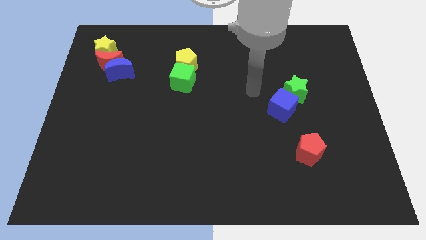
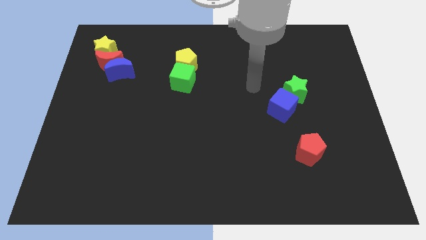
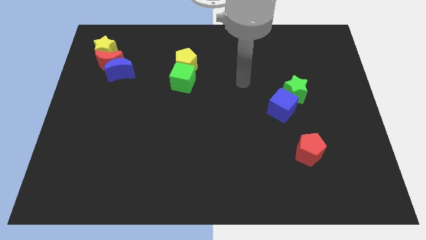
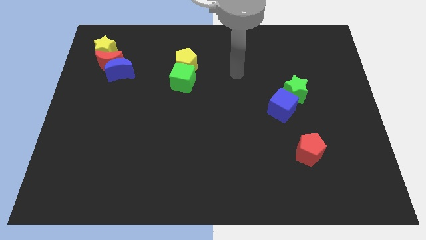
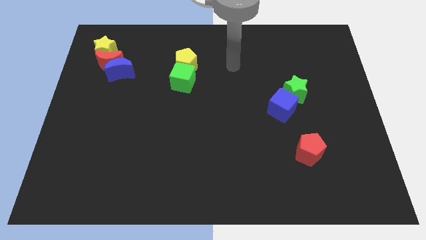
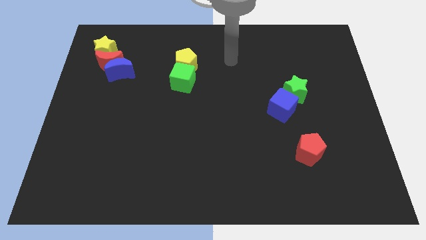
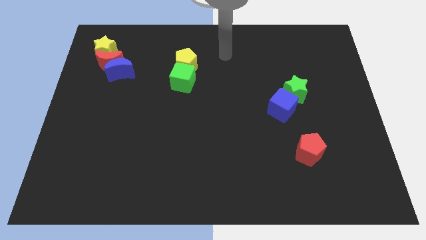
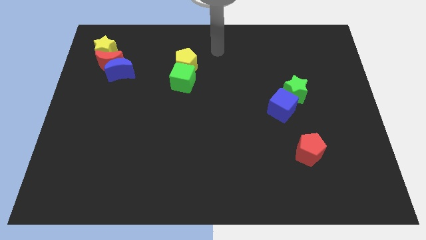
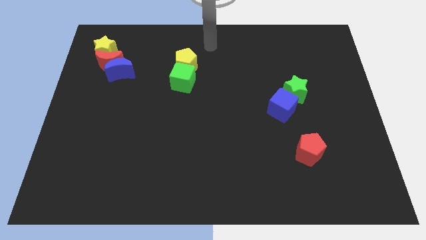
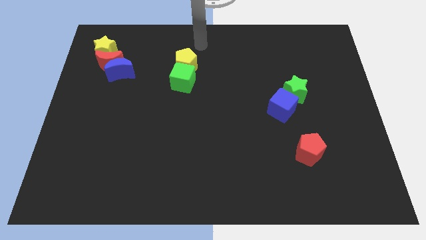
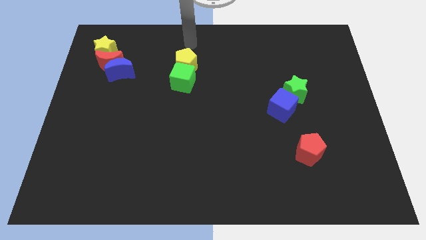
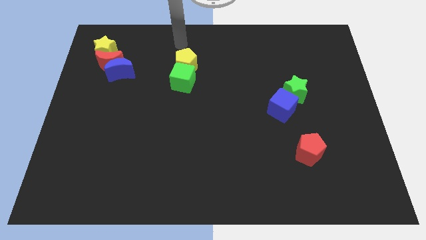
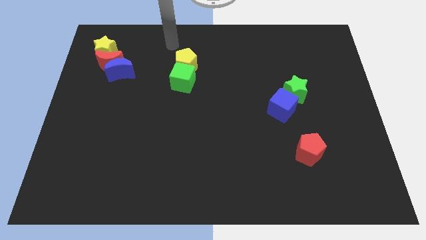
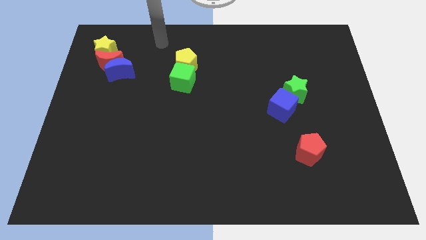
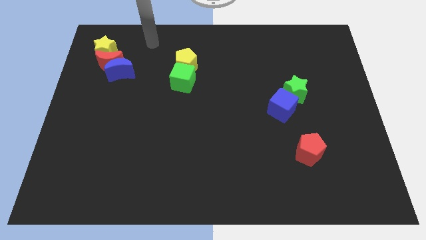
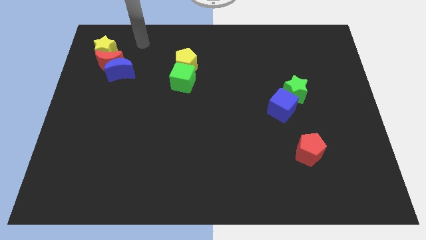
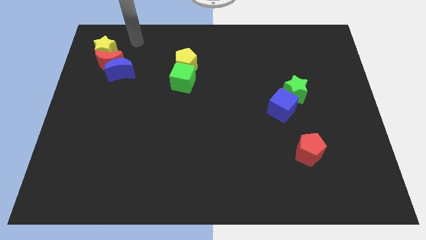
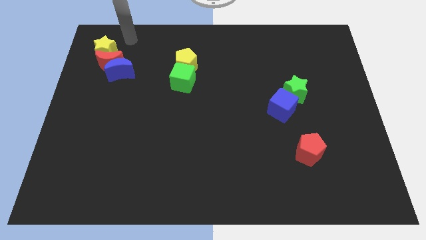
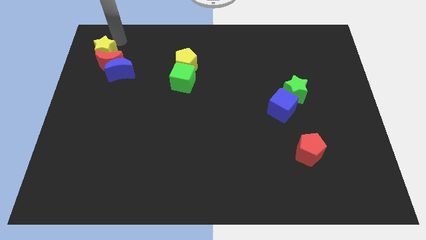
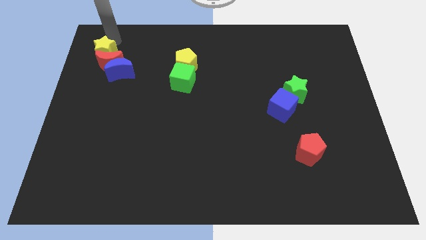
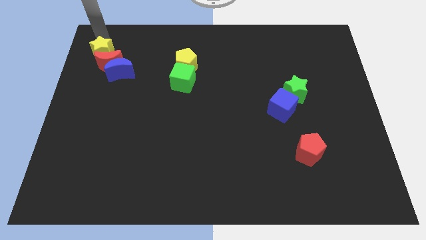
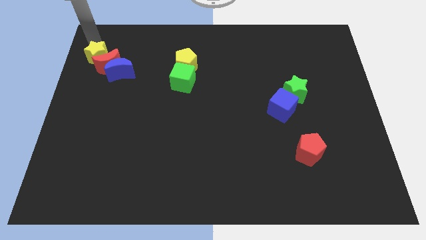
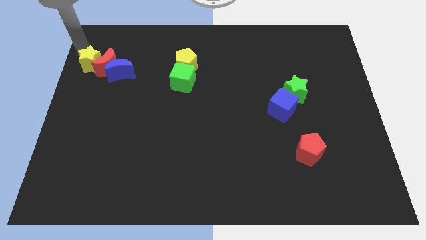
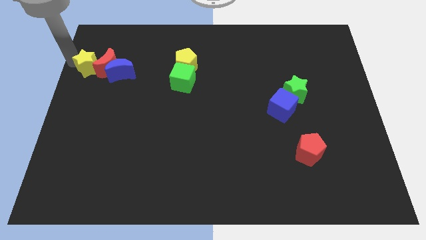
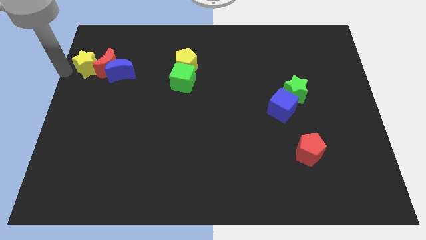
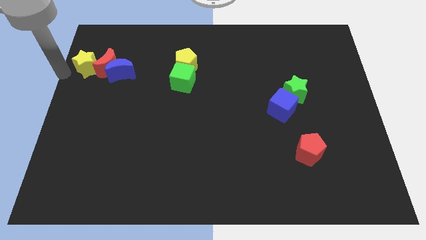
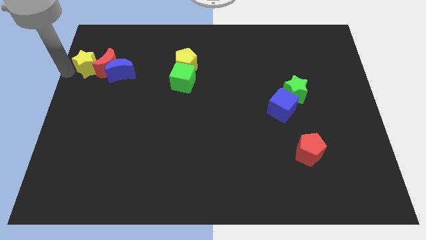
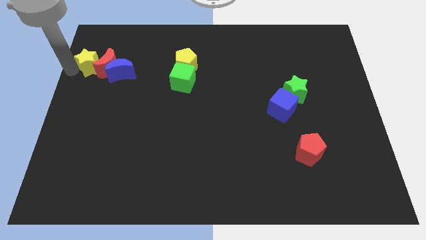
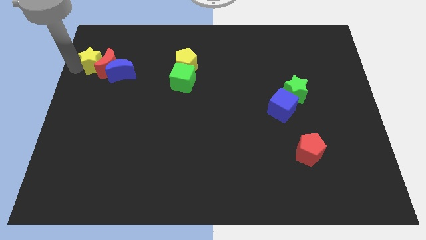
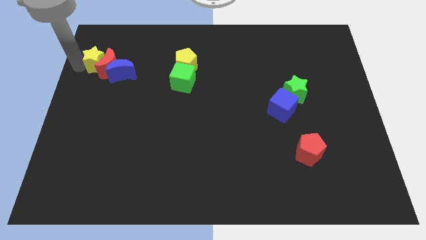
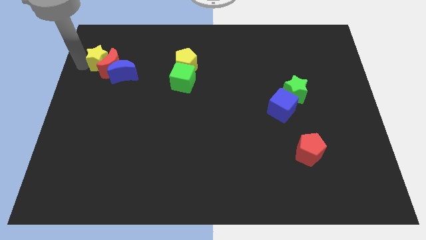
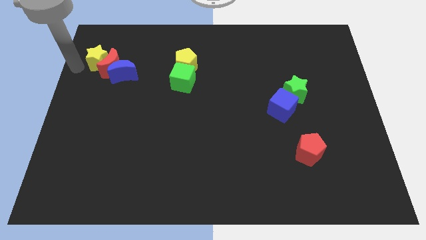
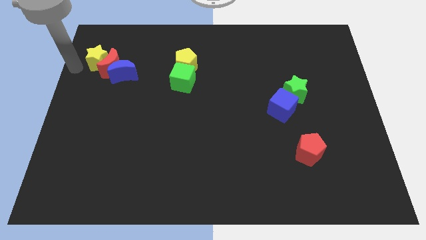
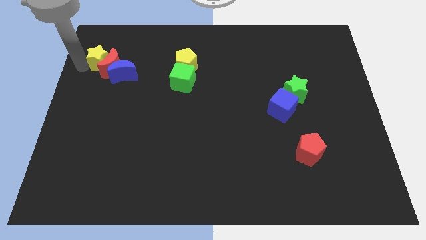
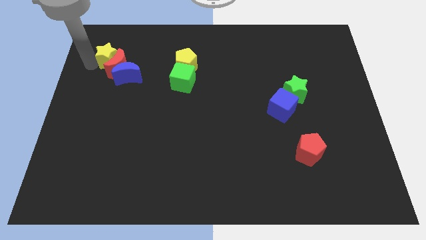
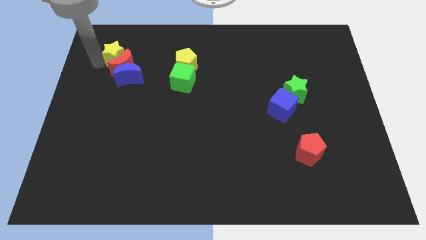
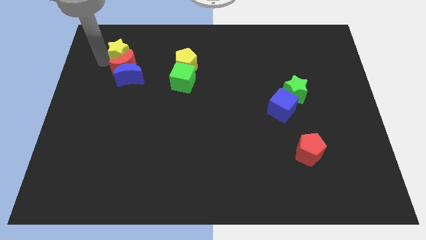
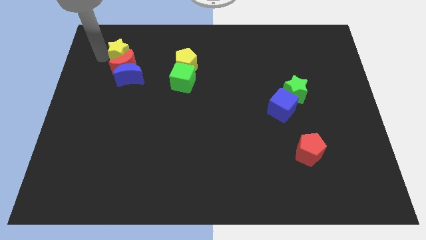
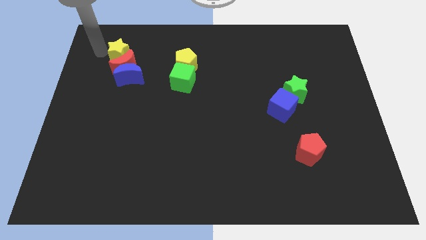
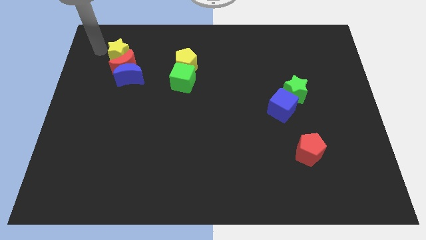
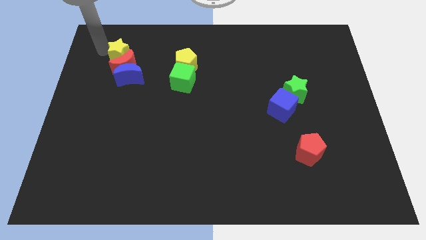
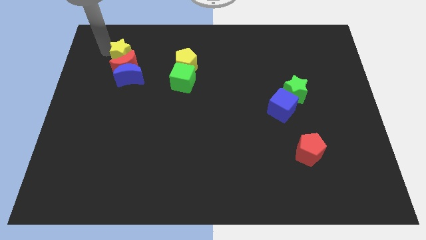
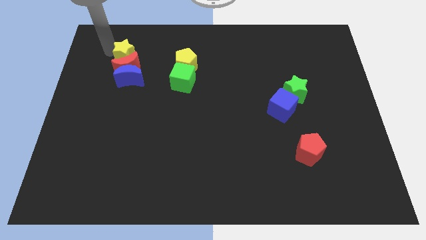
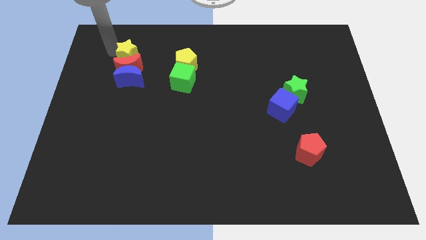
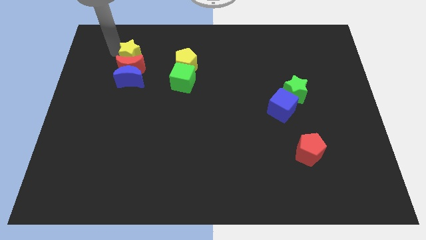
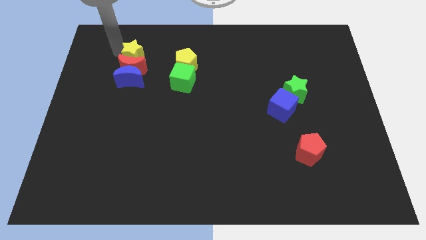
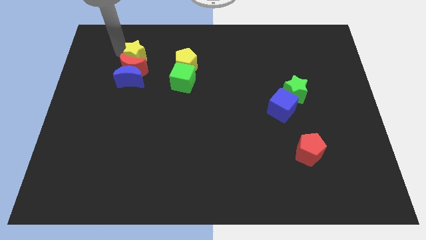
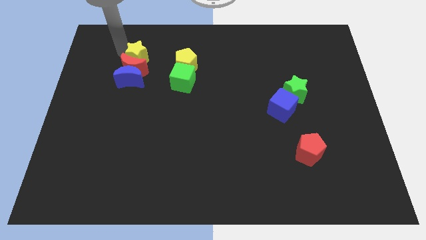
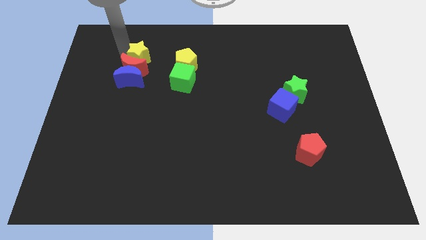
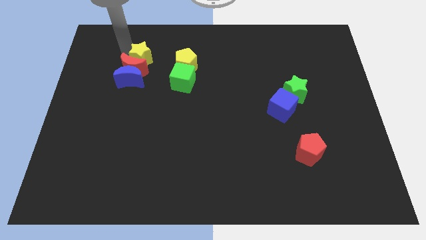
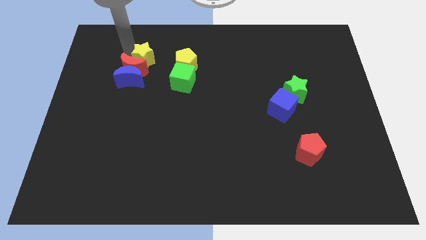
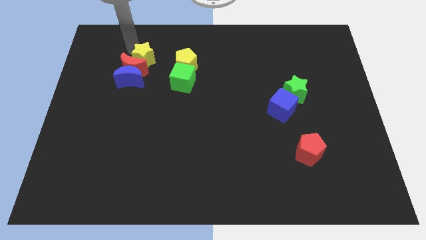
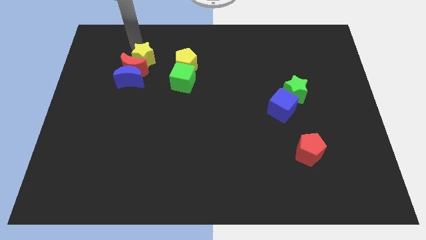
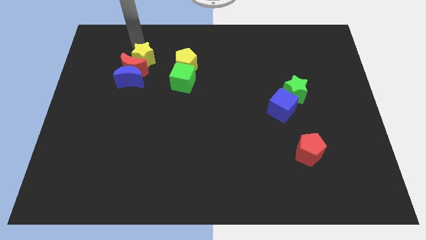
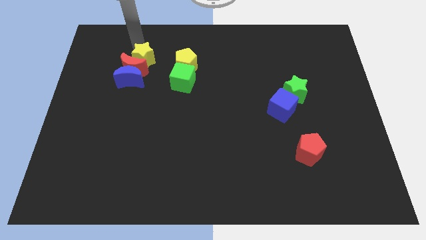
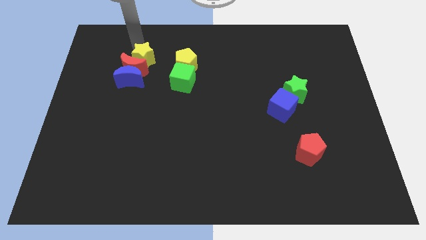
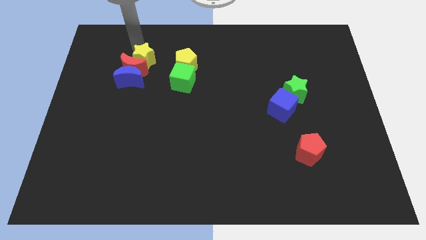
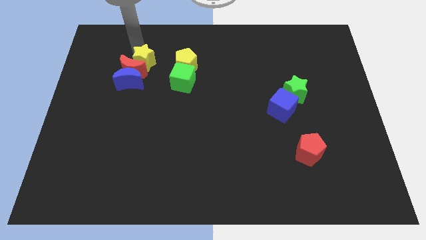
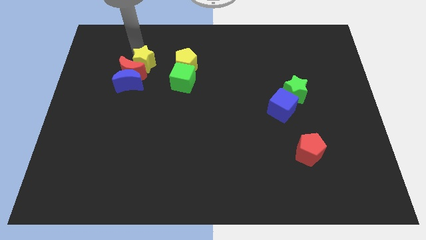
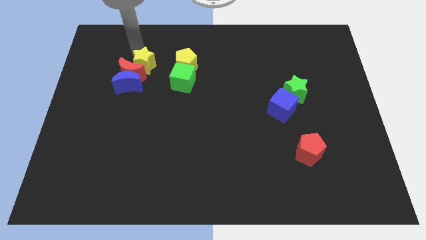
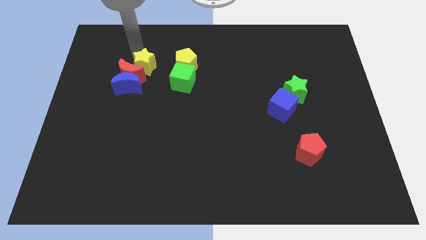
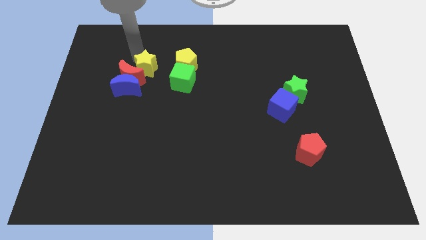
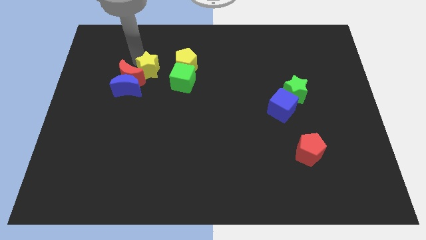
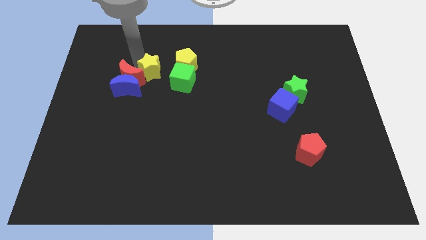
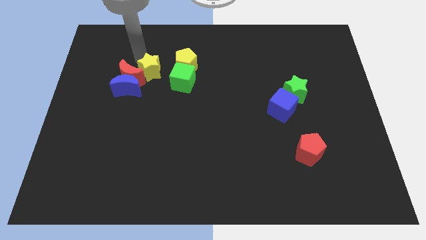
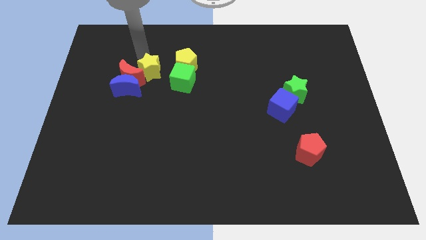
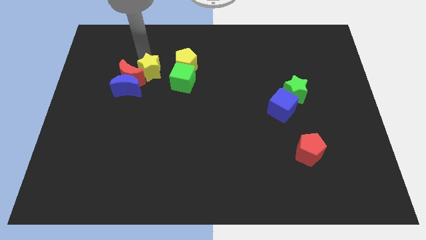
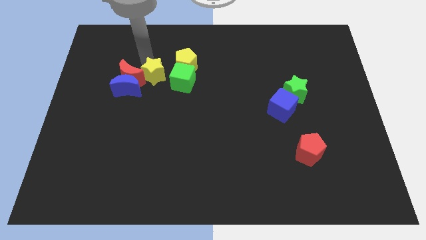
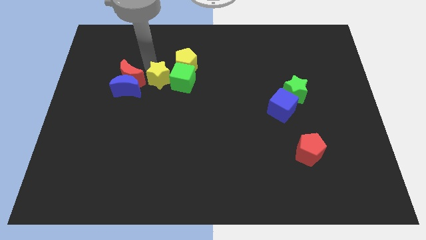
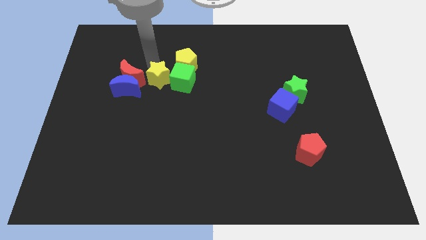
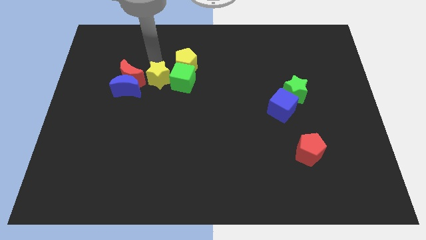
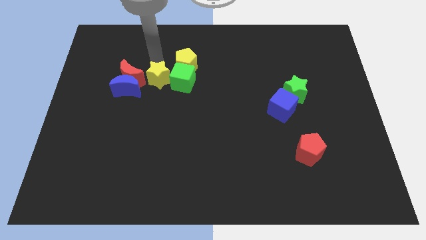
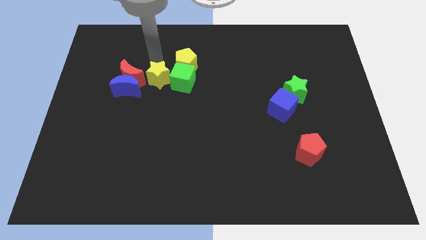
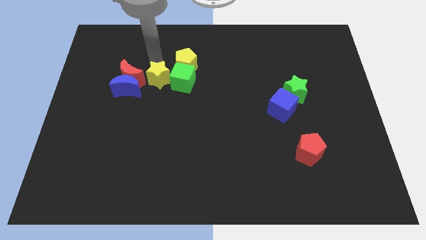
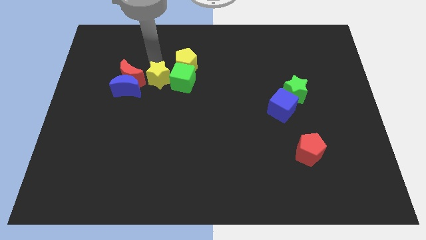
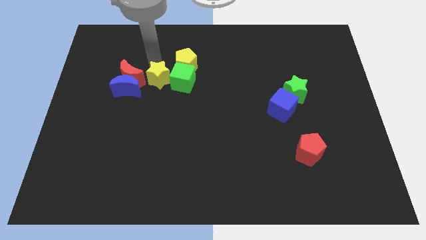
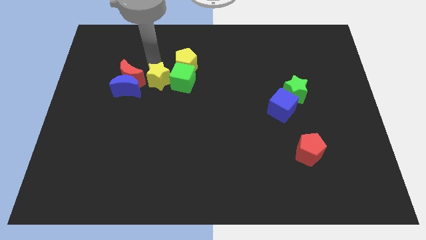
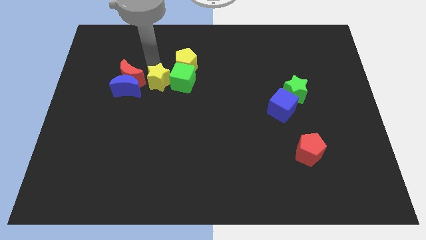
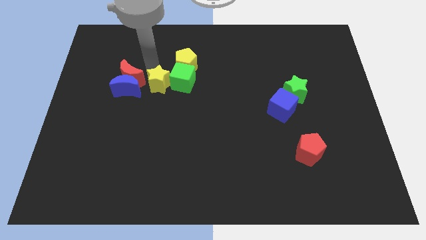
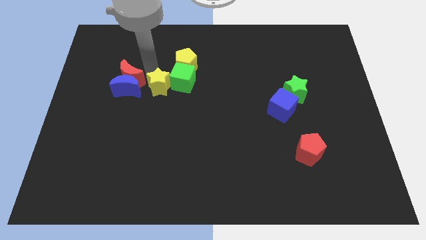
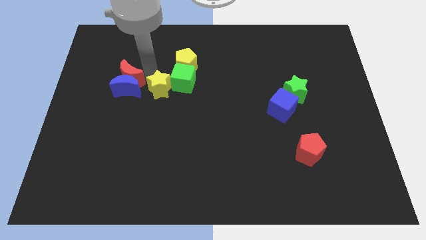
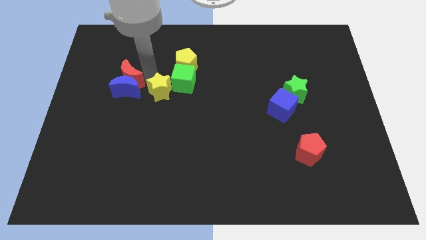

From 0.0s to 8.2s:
push the yellow star diagonally downwards and to the right
